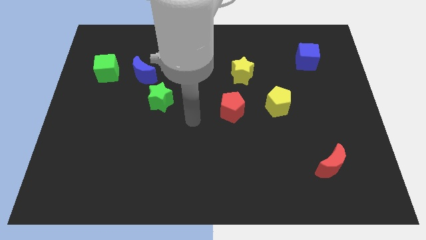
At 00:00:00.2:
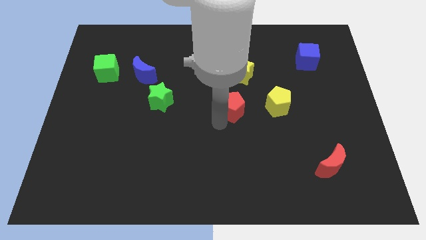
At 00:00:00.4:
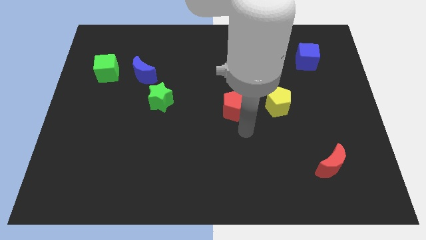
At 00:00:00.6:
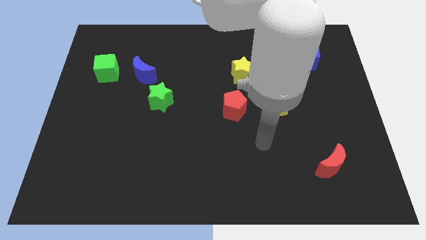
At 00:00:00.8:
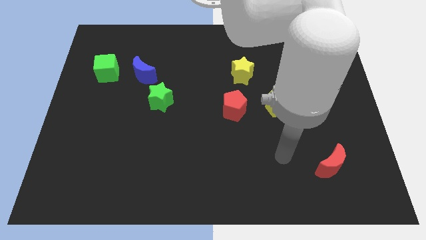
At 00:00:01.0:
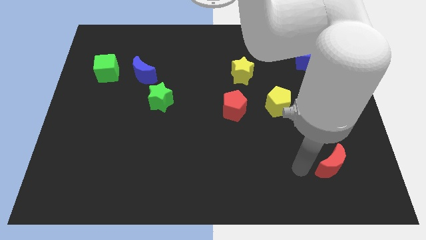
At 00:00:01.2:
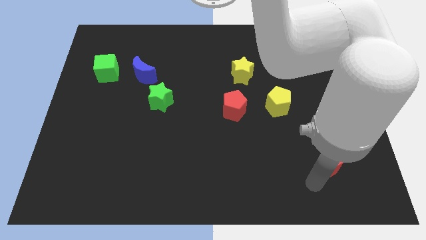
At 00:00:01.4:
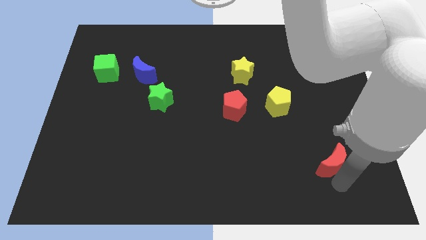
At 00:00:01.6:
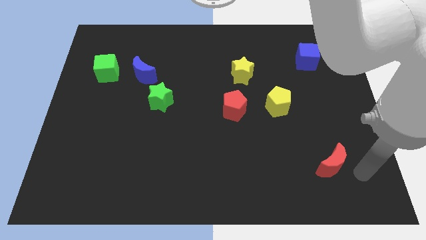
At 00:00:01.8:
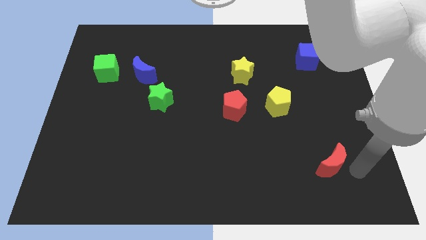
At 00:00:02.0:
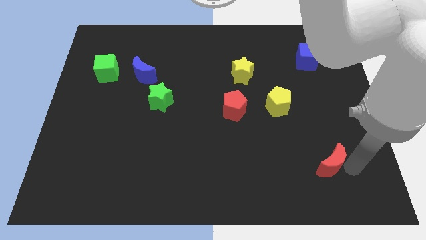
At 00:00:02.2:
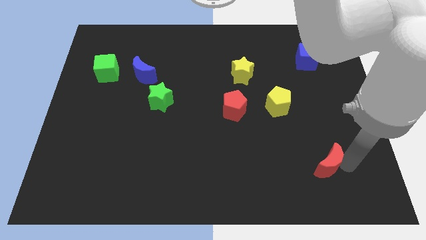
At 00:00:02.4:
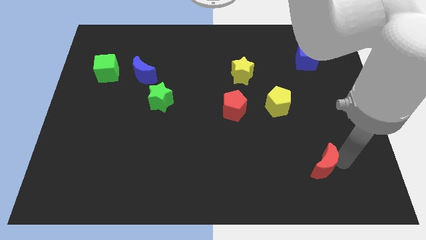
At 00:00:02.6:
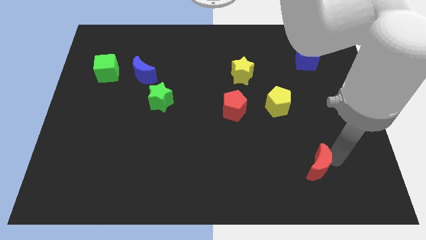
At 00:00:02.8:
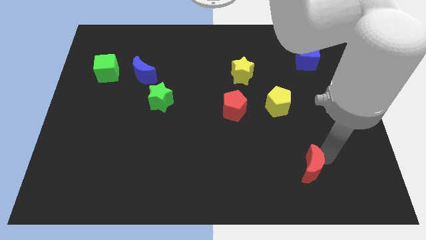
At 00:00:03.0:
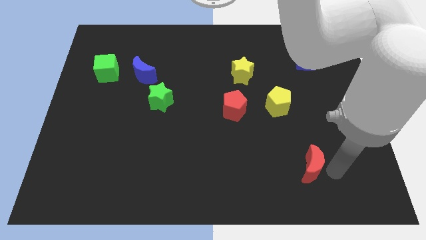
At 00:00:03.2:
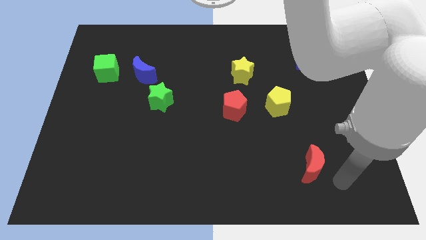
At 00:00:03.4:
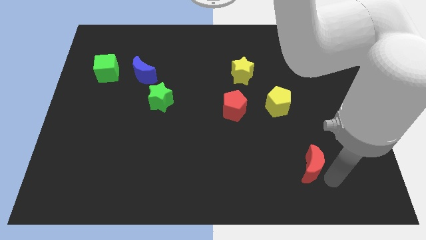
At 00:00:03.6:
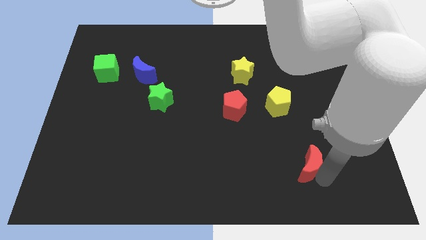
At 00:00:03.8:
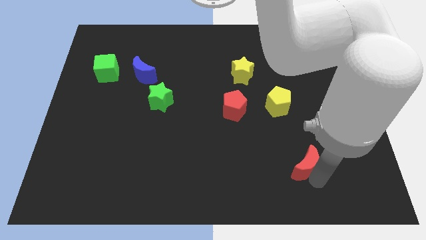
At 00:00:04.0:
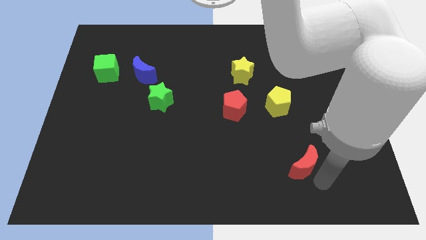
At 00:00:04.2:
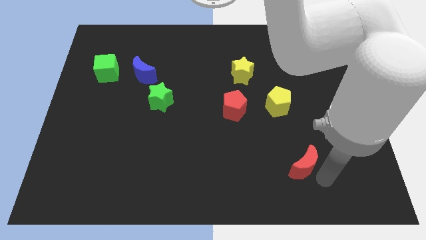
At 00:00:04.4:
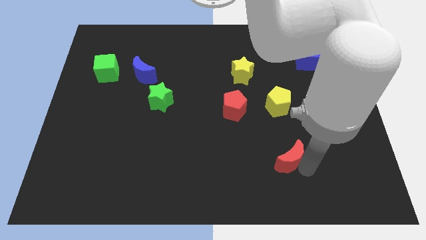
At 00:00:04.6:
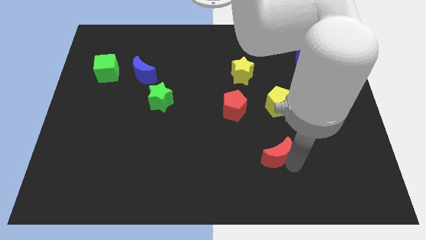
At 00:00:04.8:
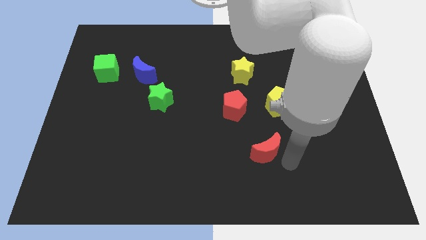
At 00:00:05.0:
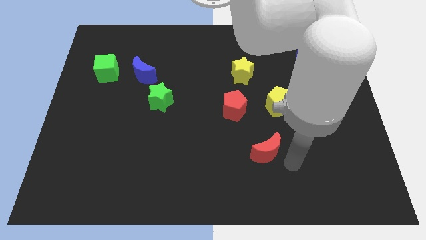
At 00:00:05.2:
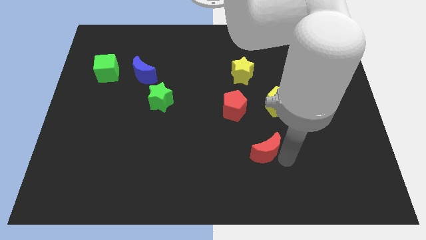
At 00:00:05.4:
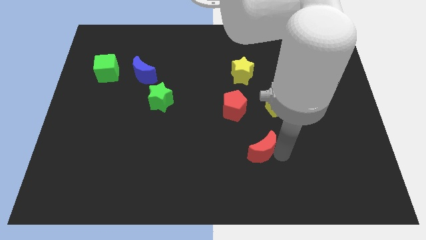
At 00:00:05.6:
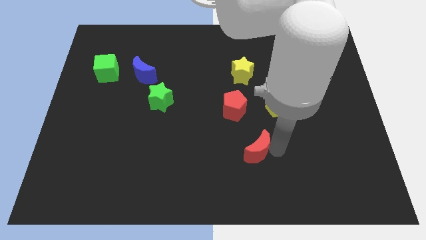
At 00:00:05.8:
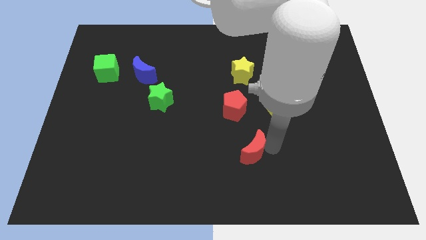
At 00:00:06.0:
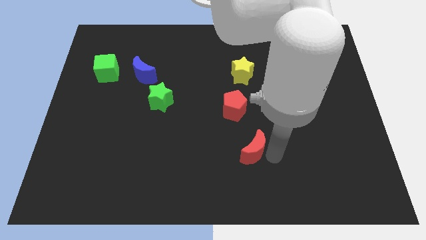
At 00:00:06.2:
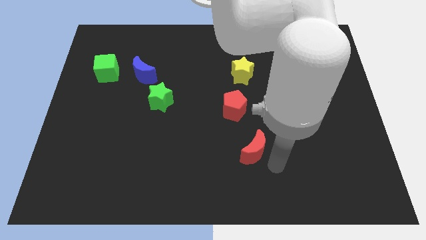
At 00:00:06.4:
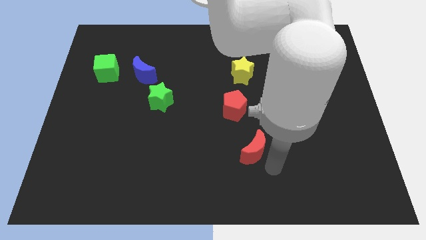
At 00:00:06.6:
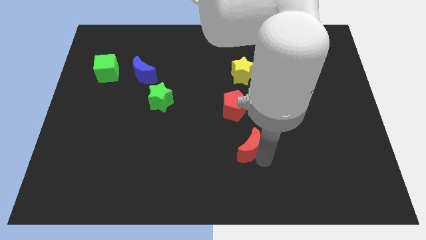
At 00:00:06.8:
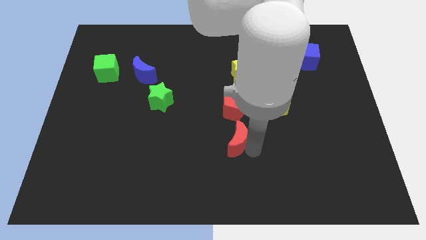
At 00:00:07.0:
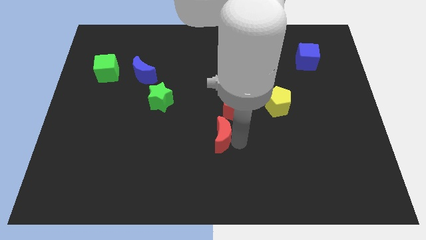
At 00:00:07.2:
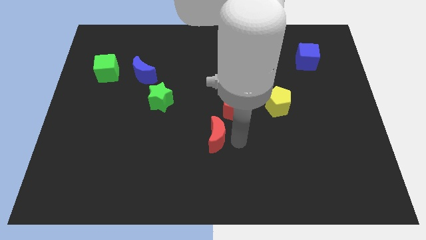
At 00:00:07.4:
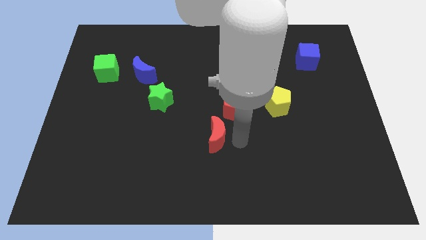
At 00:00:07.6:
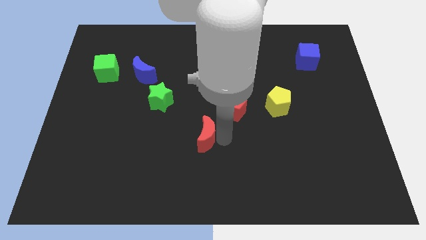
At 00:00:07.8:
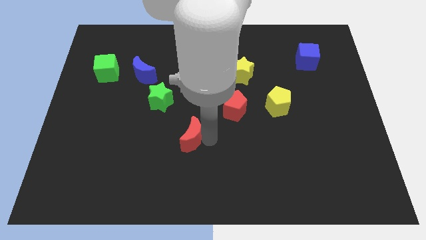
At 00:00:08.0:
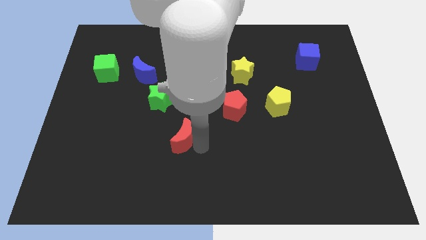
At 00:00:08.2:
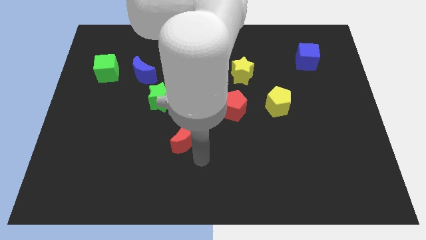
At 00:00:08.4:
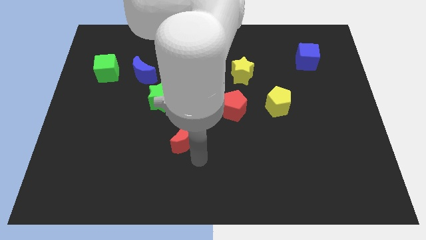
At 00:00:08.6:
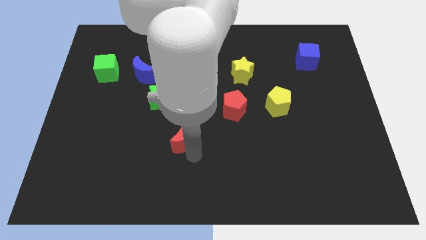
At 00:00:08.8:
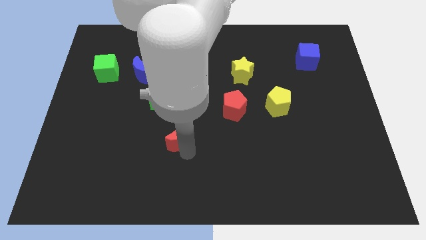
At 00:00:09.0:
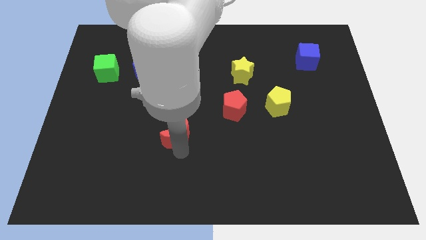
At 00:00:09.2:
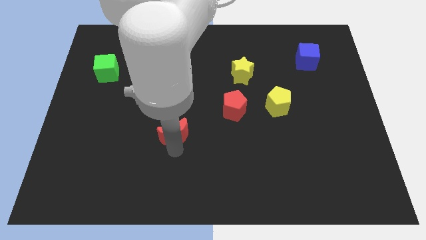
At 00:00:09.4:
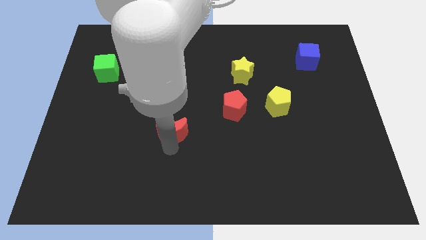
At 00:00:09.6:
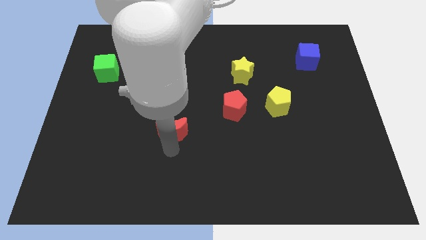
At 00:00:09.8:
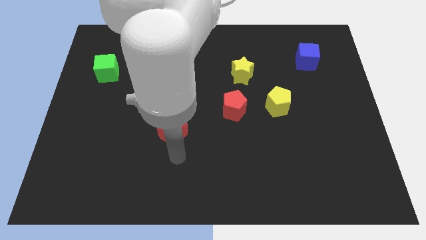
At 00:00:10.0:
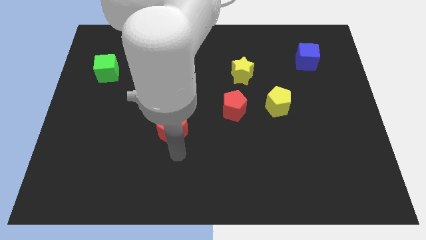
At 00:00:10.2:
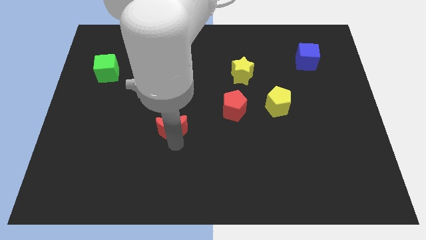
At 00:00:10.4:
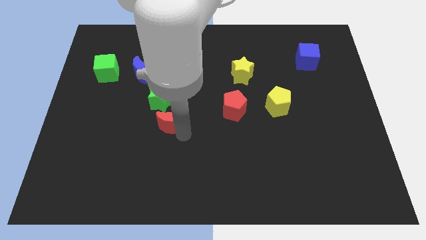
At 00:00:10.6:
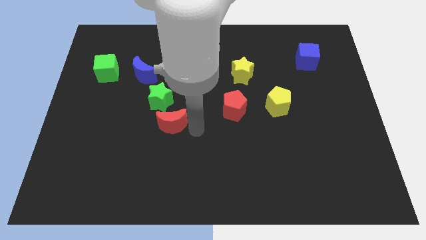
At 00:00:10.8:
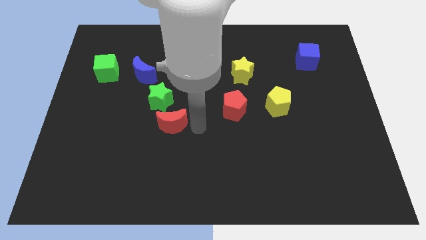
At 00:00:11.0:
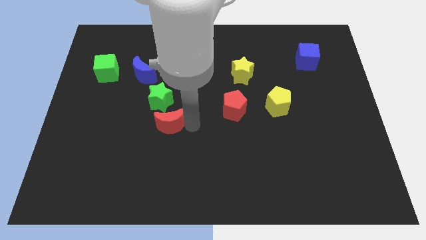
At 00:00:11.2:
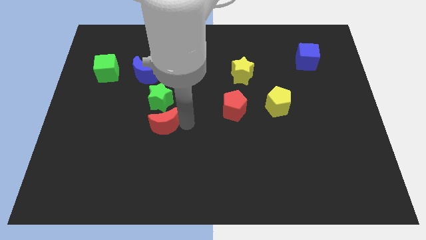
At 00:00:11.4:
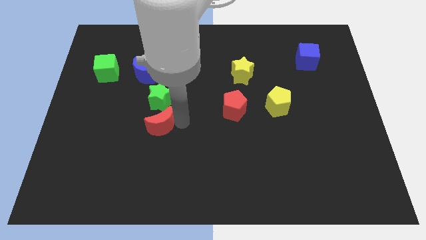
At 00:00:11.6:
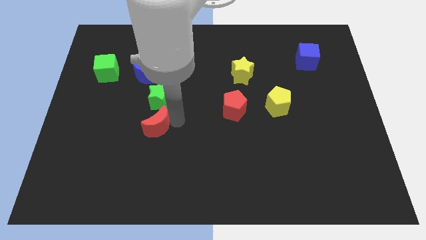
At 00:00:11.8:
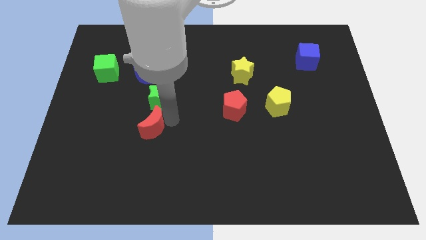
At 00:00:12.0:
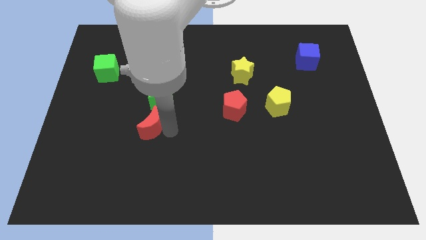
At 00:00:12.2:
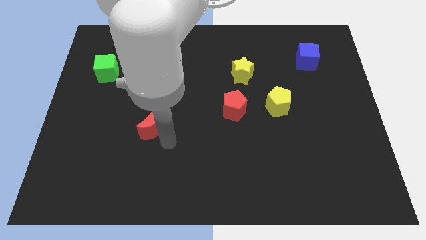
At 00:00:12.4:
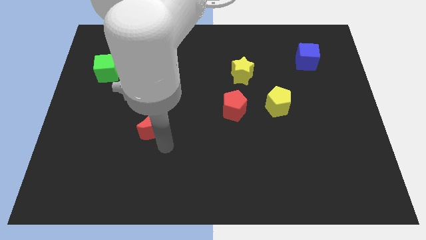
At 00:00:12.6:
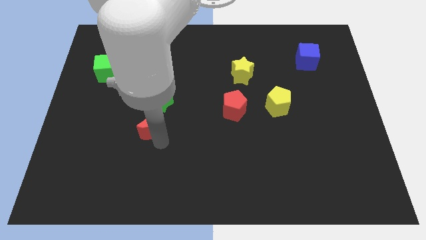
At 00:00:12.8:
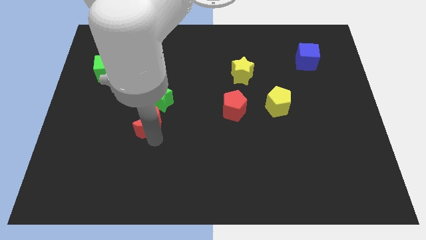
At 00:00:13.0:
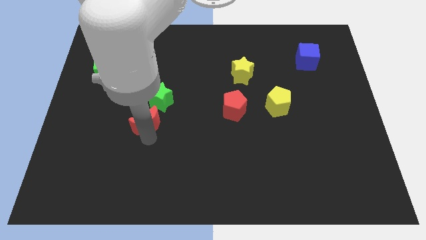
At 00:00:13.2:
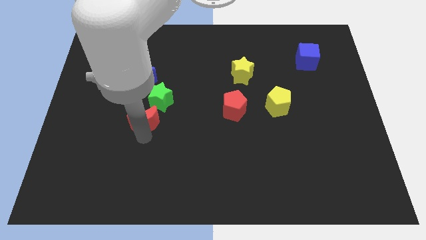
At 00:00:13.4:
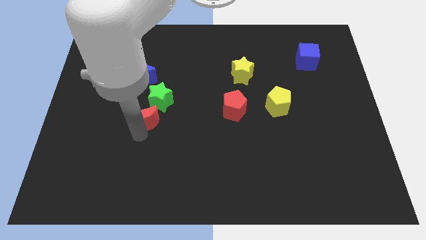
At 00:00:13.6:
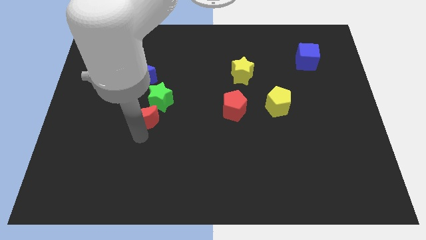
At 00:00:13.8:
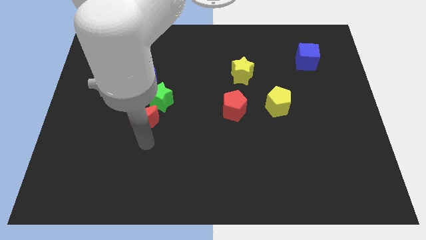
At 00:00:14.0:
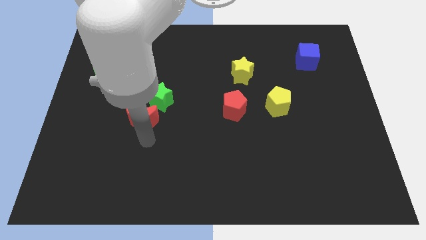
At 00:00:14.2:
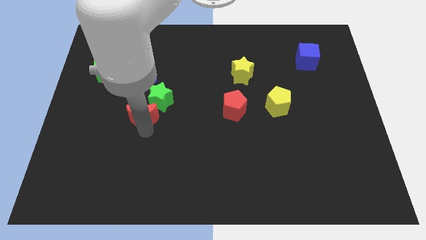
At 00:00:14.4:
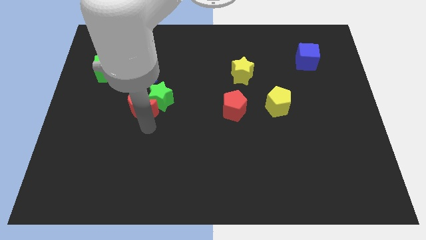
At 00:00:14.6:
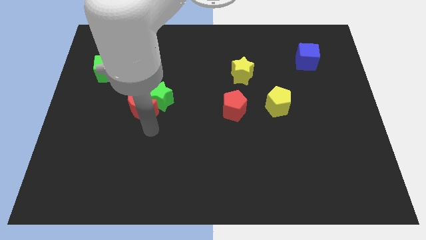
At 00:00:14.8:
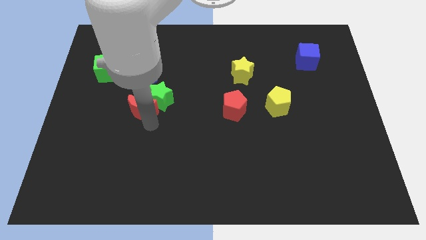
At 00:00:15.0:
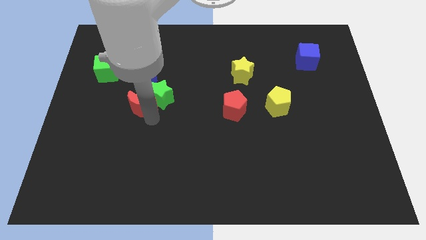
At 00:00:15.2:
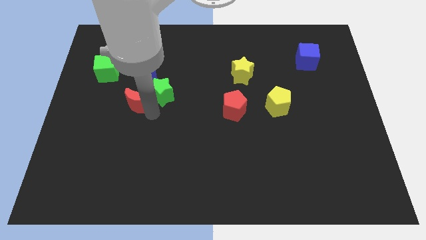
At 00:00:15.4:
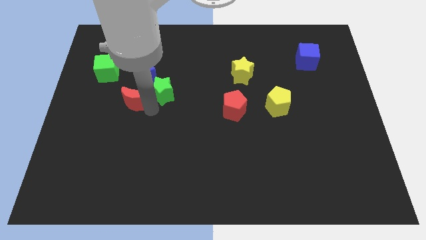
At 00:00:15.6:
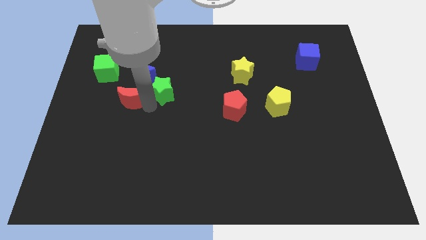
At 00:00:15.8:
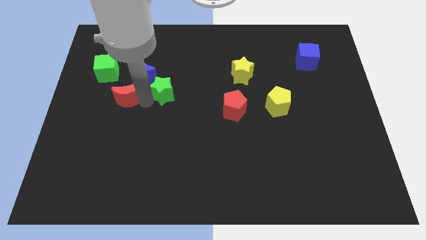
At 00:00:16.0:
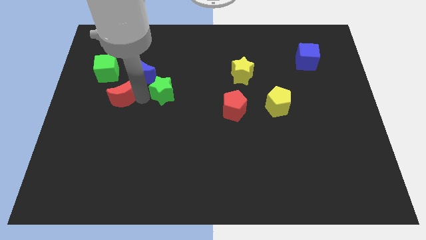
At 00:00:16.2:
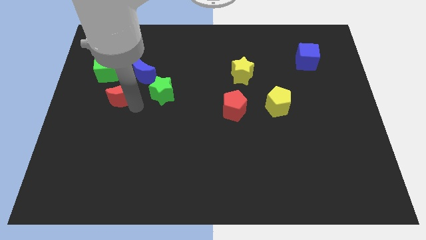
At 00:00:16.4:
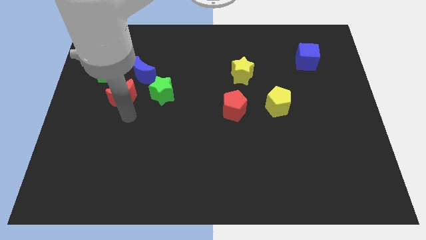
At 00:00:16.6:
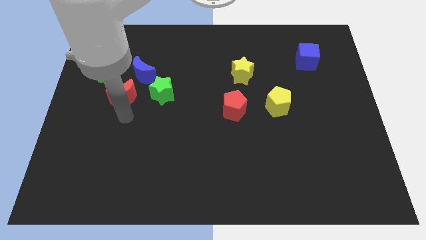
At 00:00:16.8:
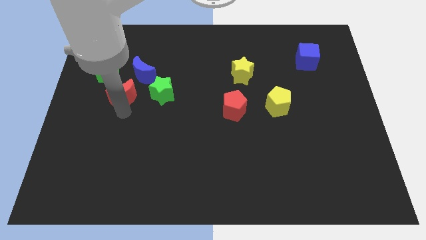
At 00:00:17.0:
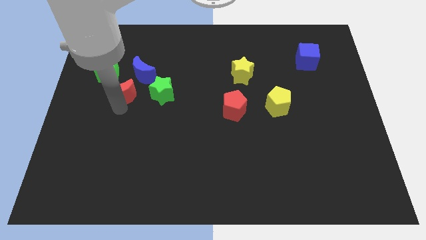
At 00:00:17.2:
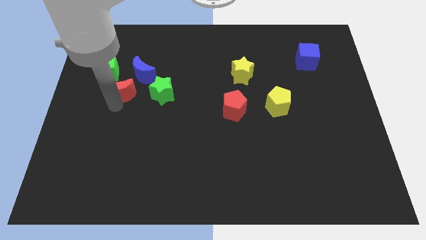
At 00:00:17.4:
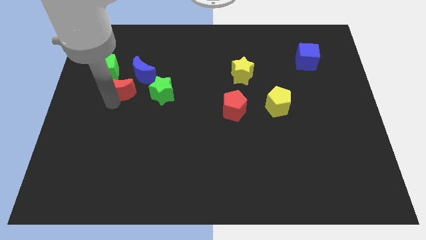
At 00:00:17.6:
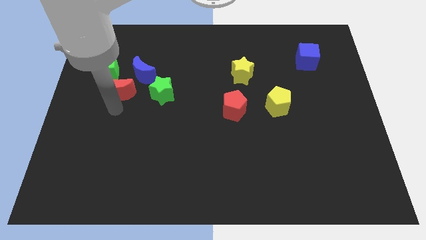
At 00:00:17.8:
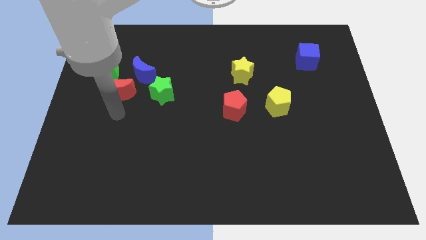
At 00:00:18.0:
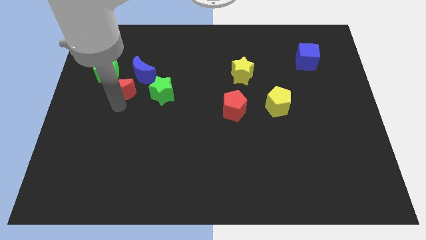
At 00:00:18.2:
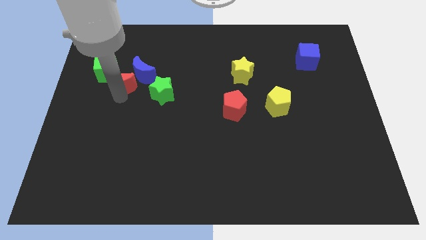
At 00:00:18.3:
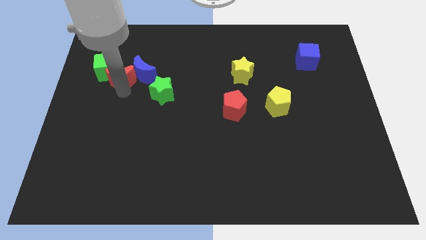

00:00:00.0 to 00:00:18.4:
move the red moon to the green cube
